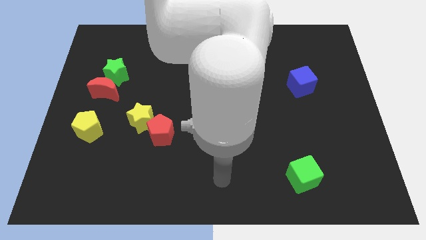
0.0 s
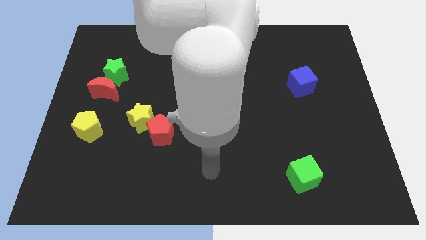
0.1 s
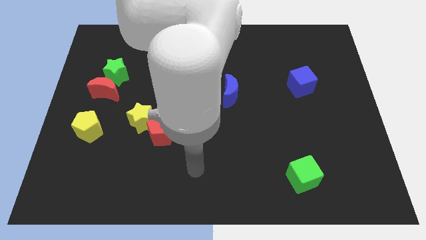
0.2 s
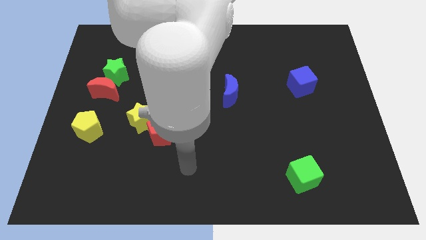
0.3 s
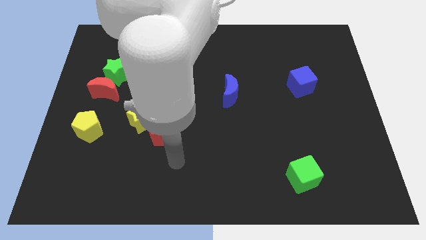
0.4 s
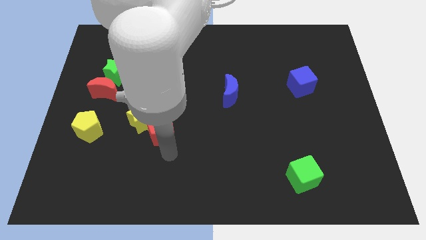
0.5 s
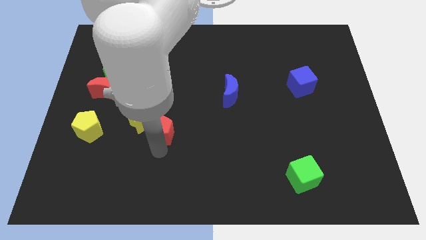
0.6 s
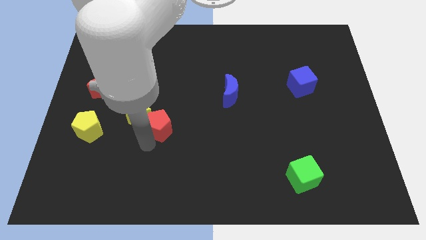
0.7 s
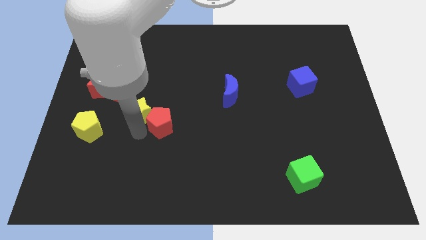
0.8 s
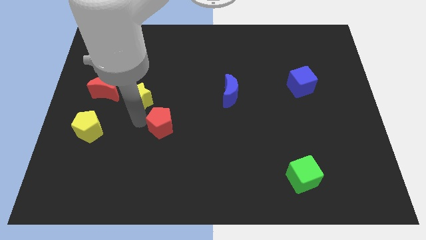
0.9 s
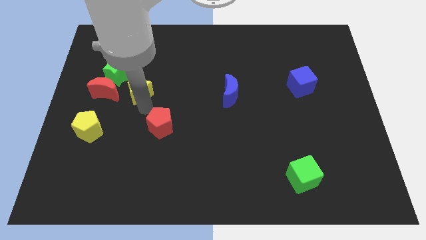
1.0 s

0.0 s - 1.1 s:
separate the red pentagon from the yellow star

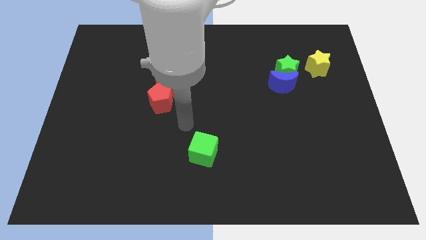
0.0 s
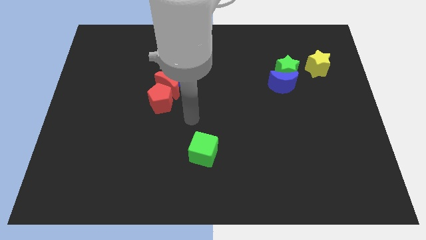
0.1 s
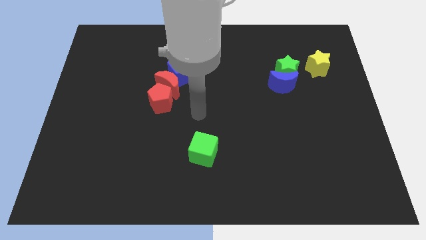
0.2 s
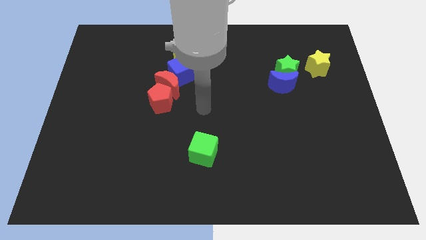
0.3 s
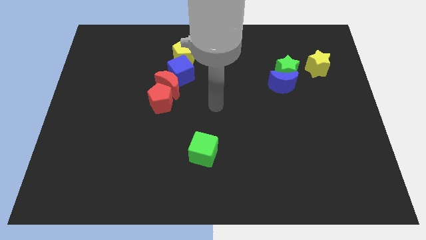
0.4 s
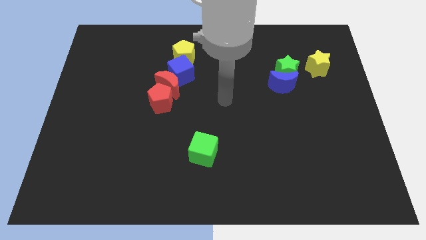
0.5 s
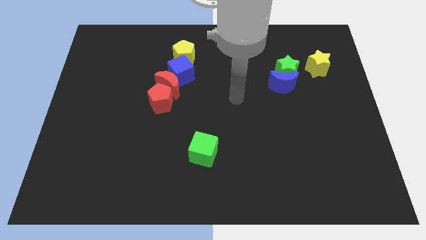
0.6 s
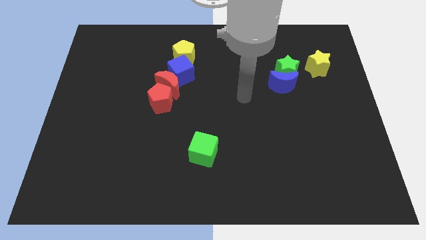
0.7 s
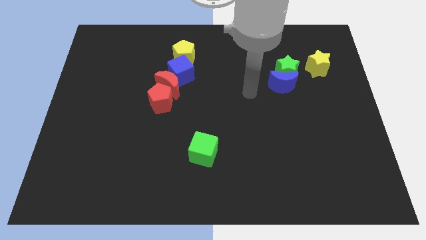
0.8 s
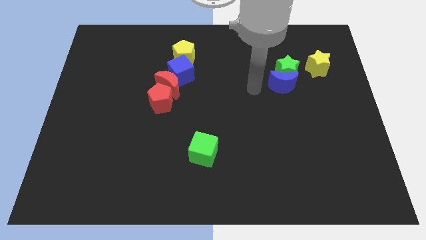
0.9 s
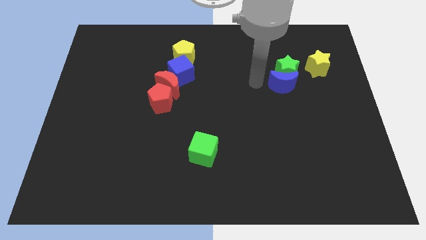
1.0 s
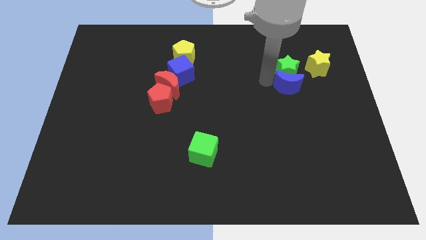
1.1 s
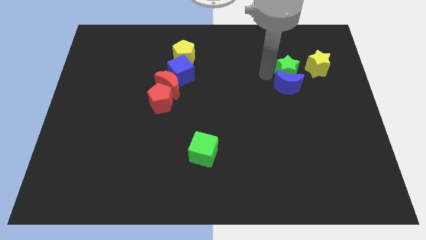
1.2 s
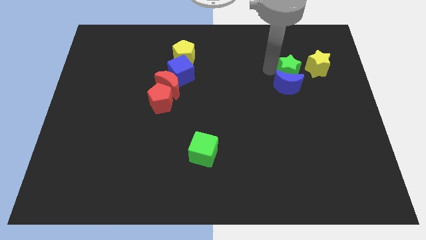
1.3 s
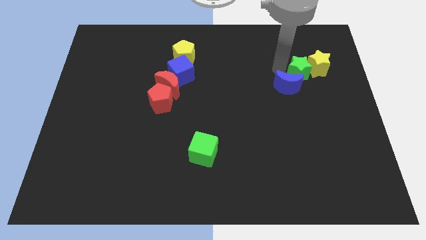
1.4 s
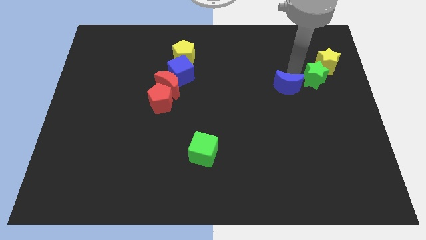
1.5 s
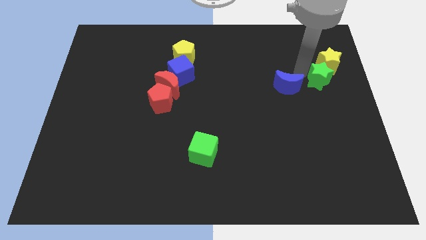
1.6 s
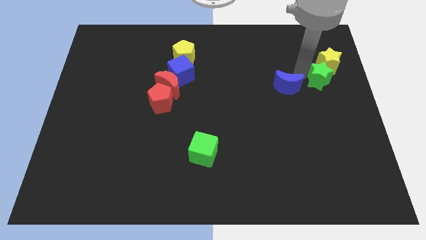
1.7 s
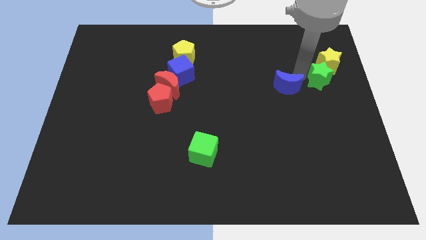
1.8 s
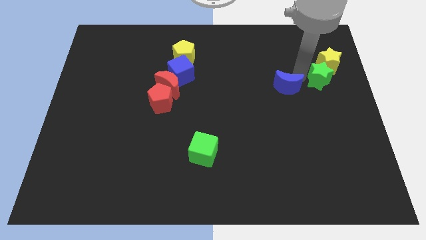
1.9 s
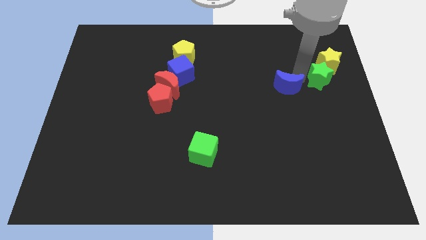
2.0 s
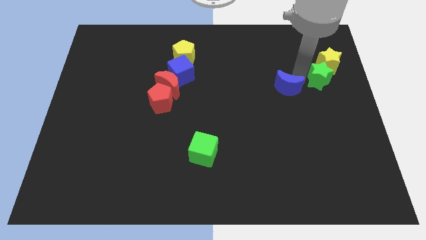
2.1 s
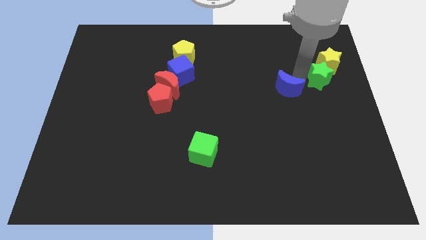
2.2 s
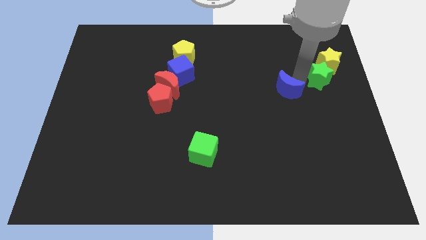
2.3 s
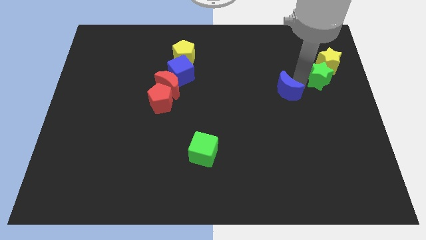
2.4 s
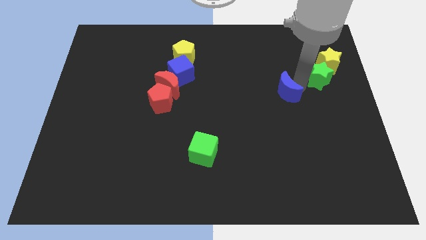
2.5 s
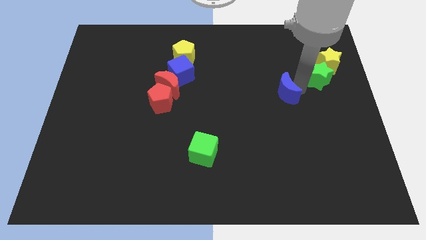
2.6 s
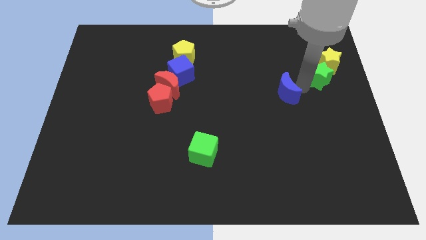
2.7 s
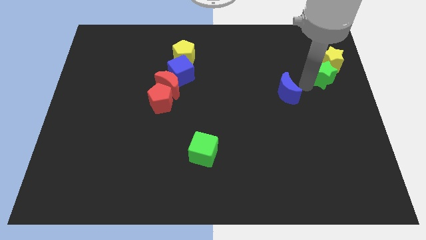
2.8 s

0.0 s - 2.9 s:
separate the blue moon from the green star

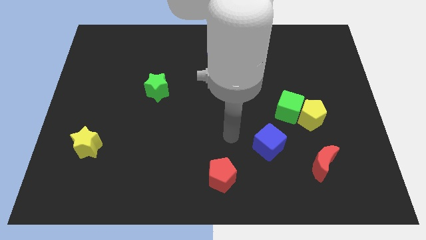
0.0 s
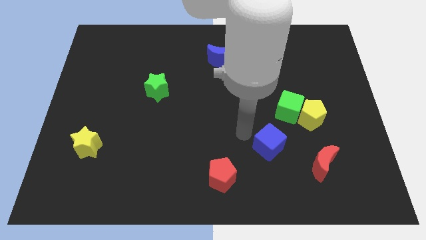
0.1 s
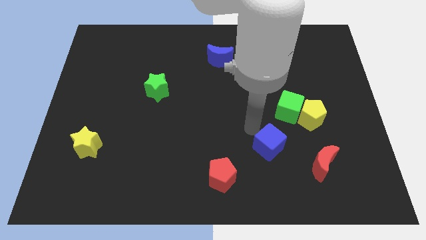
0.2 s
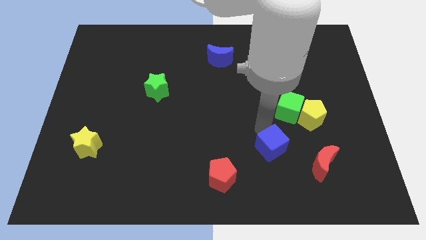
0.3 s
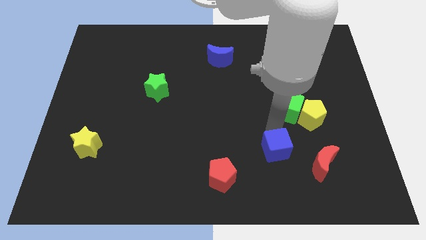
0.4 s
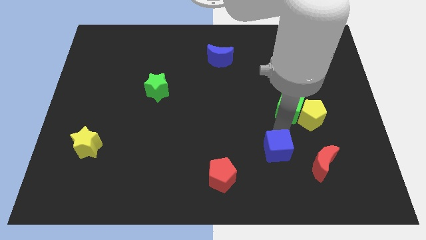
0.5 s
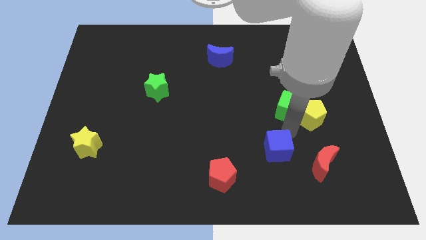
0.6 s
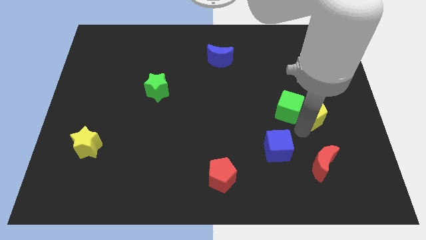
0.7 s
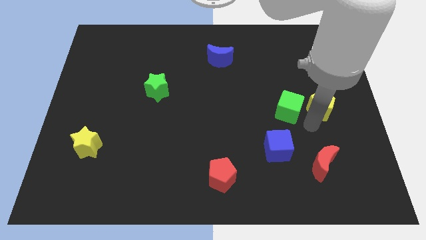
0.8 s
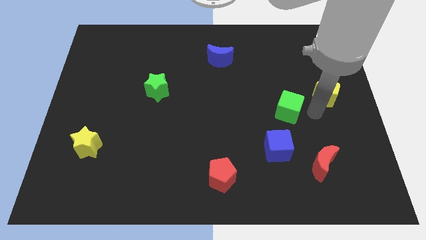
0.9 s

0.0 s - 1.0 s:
separate the green cube from the yellow pentagon

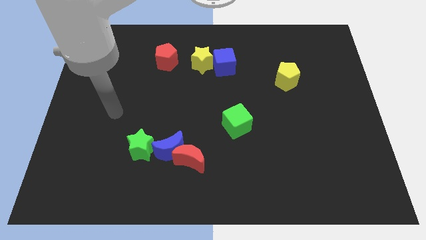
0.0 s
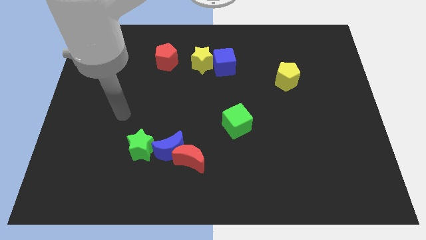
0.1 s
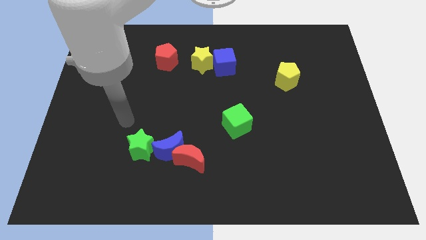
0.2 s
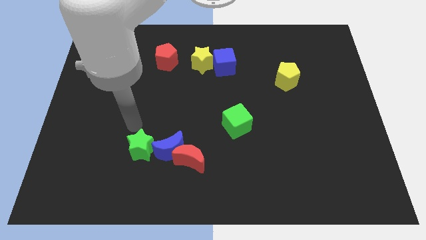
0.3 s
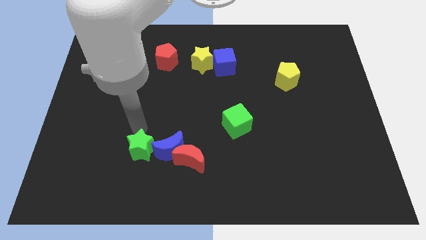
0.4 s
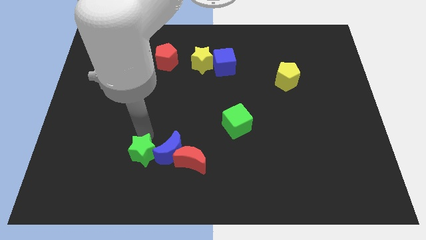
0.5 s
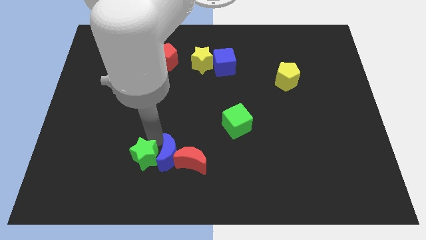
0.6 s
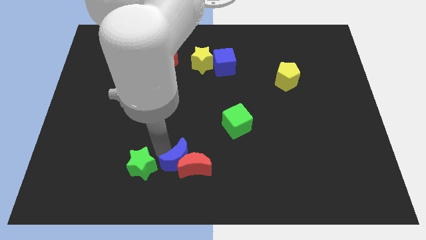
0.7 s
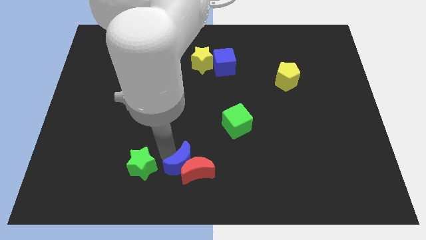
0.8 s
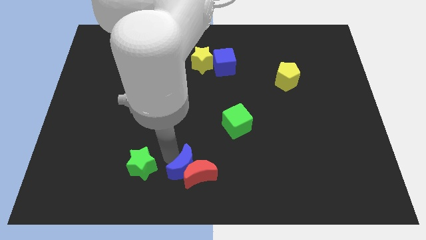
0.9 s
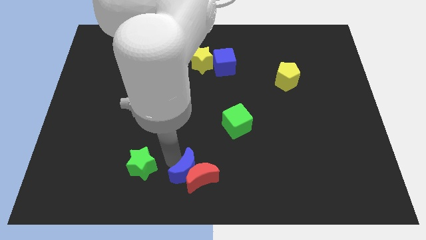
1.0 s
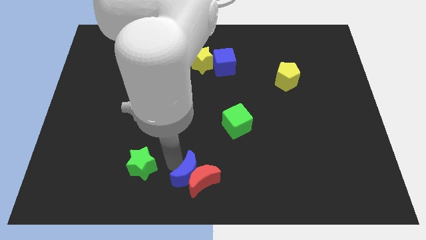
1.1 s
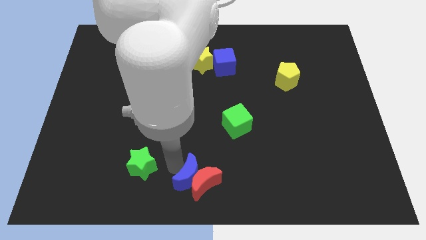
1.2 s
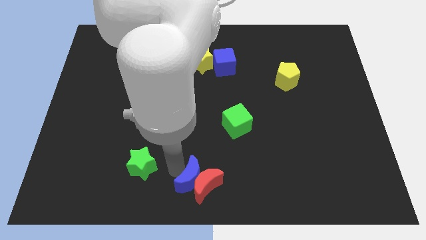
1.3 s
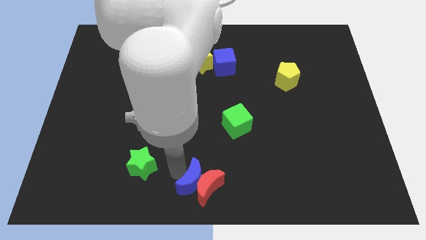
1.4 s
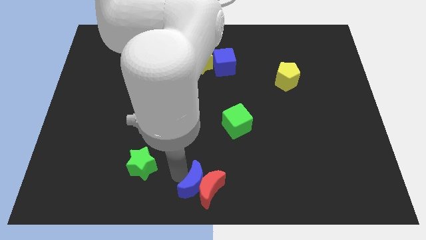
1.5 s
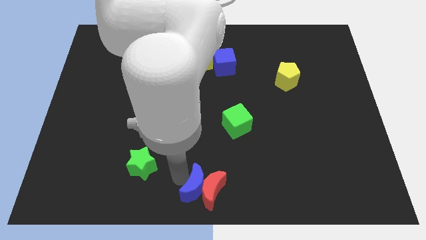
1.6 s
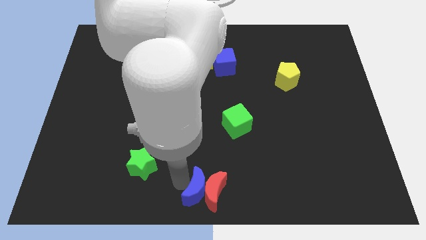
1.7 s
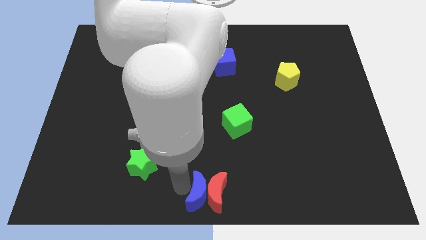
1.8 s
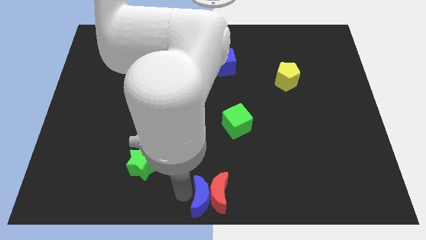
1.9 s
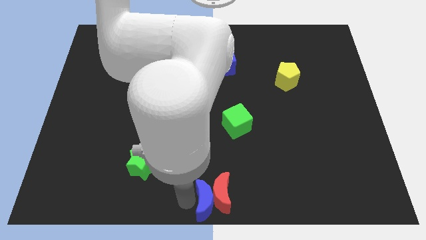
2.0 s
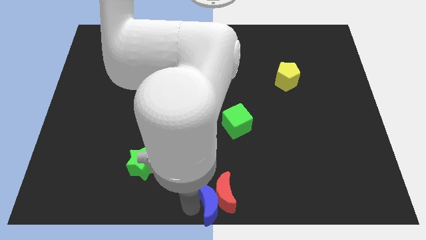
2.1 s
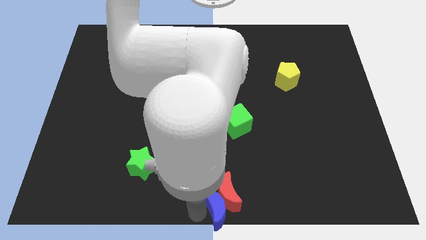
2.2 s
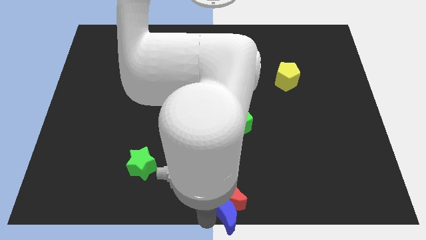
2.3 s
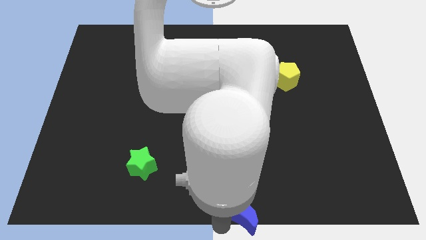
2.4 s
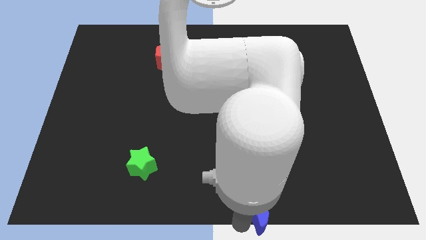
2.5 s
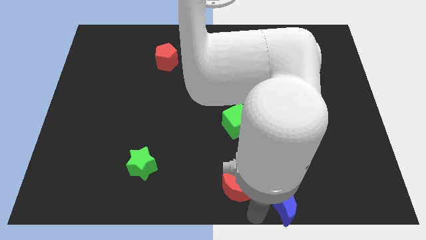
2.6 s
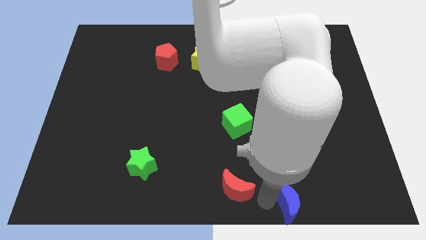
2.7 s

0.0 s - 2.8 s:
separate the red moon from the blue moon

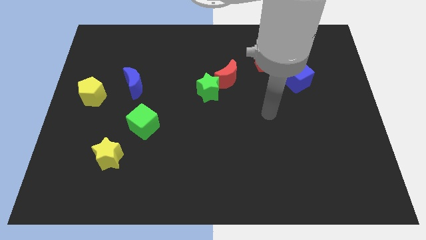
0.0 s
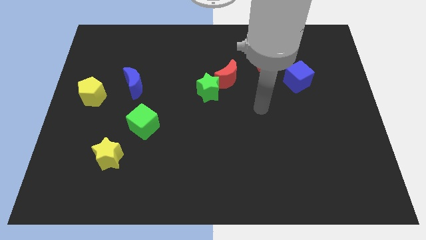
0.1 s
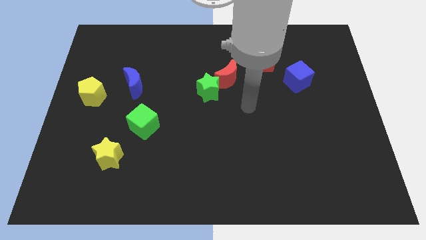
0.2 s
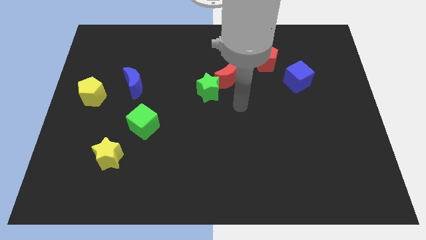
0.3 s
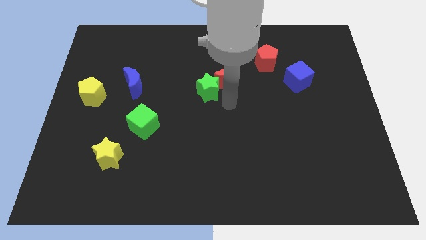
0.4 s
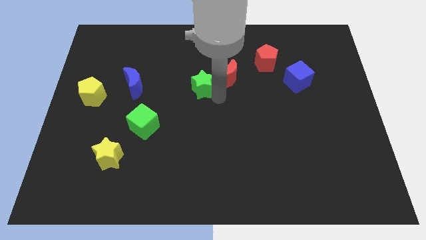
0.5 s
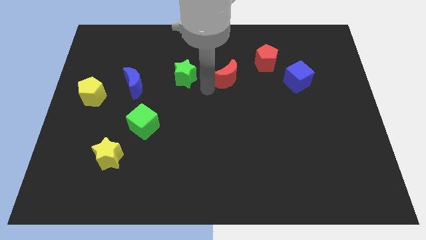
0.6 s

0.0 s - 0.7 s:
separate the red moon from the green star

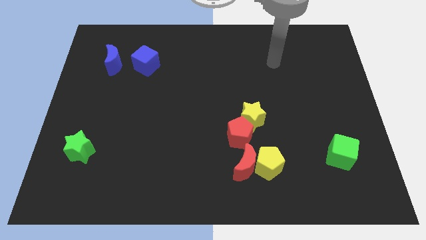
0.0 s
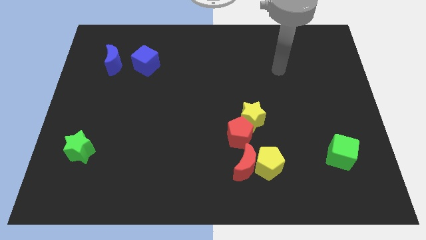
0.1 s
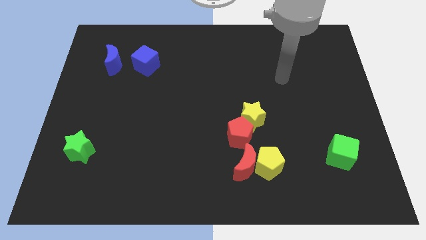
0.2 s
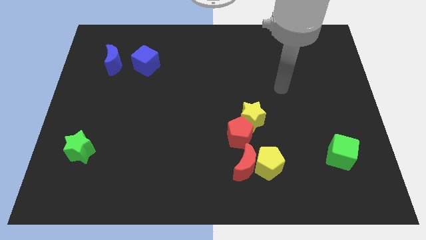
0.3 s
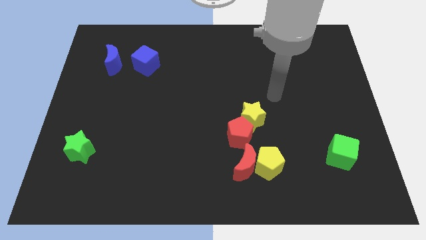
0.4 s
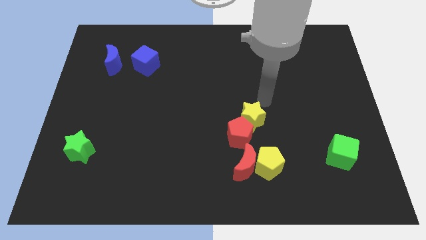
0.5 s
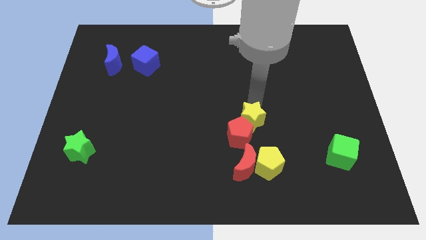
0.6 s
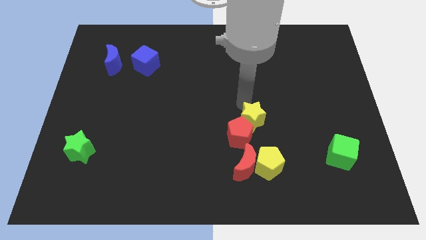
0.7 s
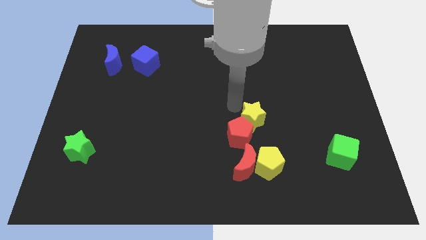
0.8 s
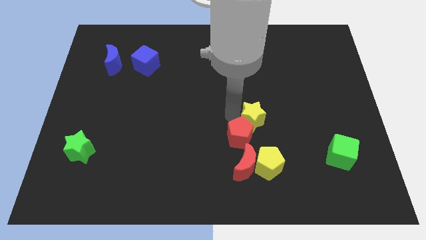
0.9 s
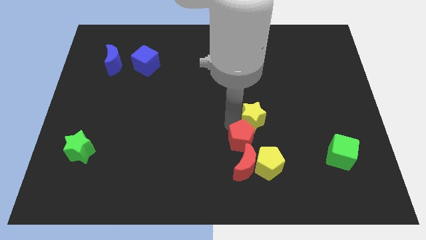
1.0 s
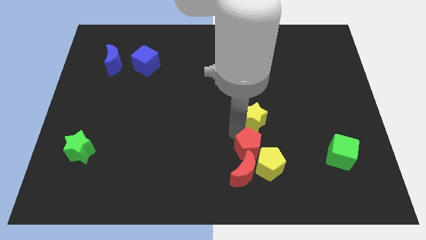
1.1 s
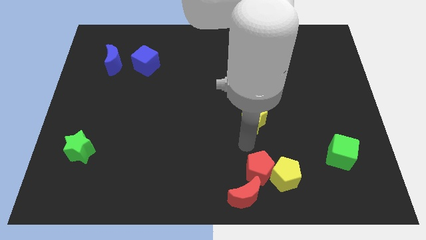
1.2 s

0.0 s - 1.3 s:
move the yellow star away from the red pentagon
